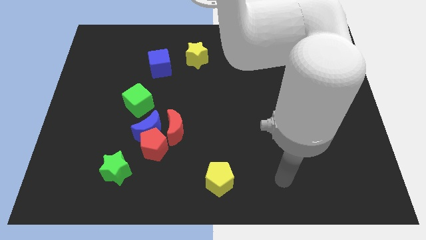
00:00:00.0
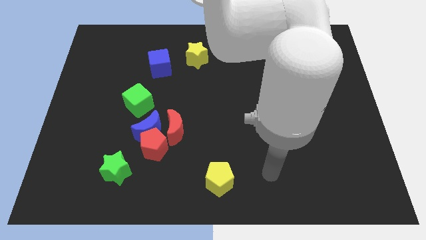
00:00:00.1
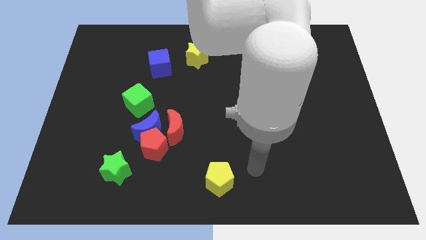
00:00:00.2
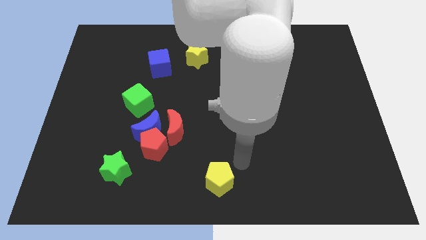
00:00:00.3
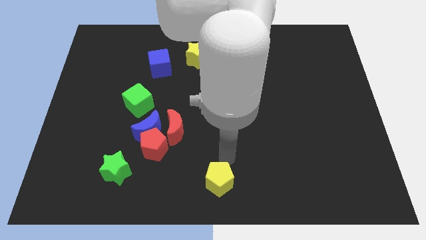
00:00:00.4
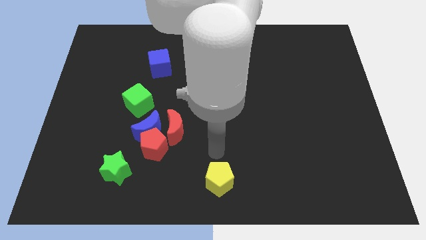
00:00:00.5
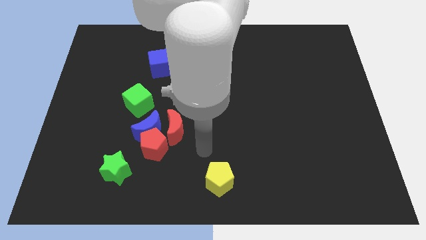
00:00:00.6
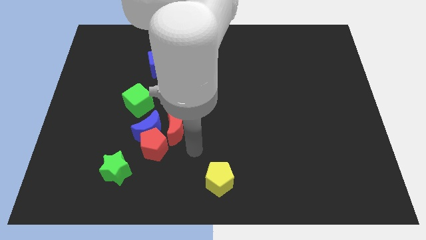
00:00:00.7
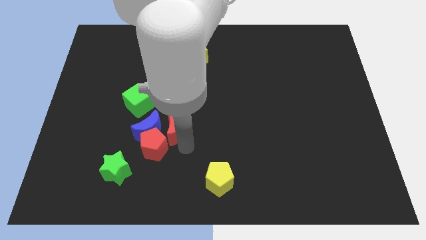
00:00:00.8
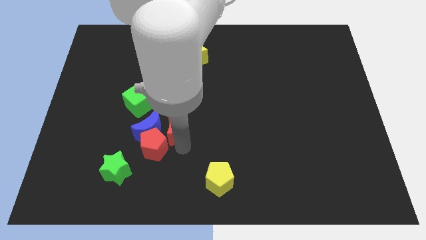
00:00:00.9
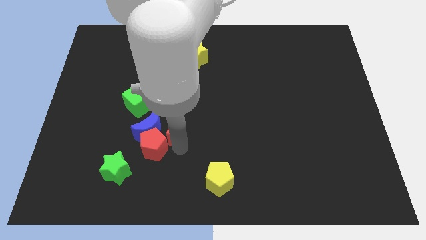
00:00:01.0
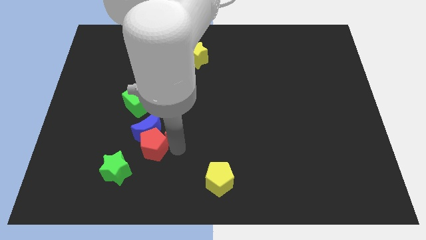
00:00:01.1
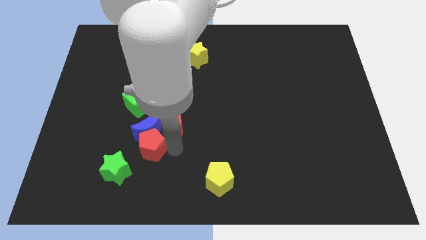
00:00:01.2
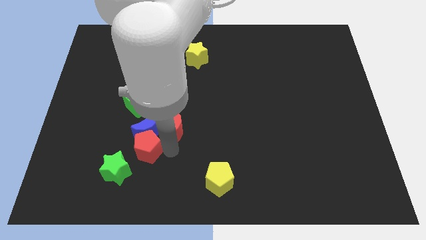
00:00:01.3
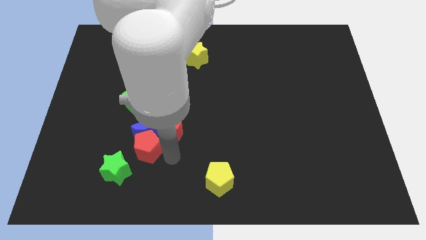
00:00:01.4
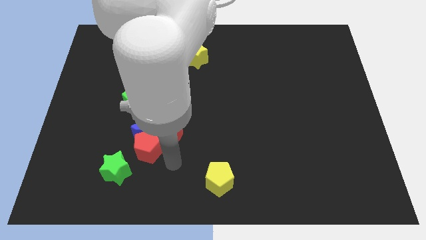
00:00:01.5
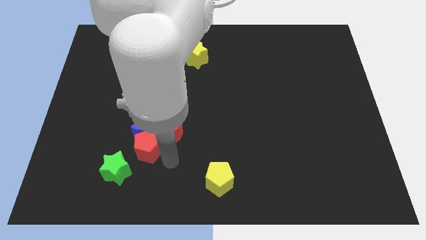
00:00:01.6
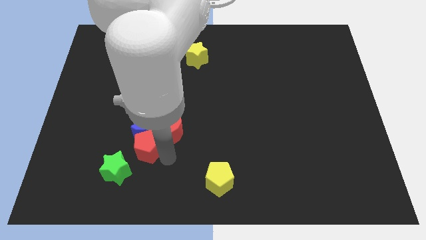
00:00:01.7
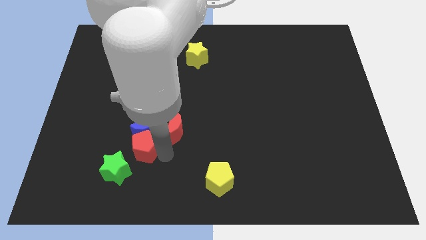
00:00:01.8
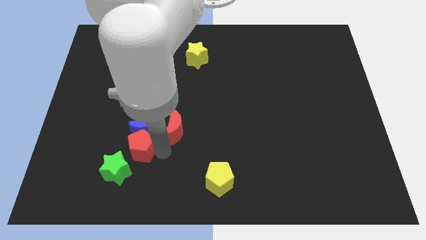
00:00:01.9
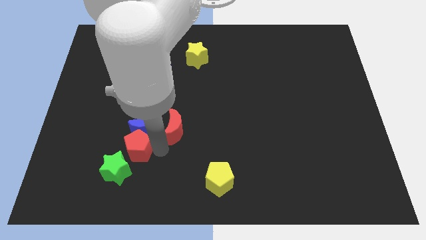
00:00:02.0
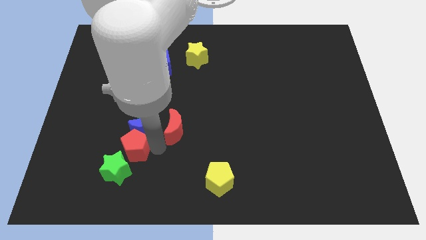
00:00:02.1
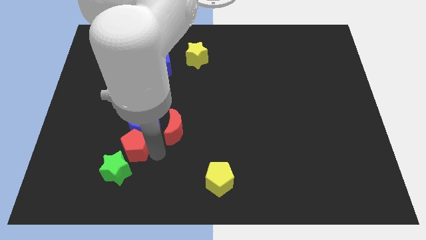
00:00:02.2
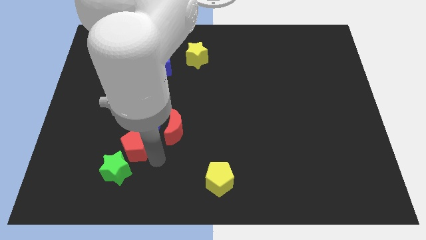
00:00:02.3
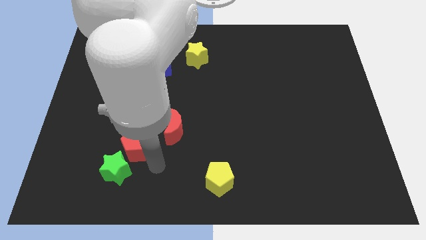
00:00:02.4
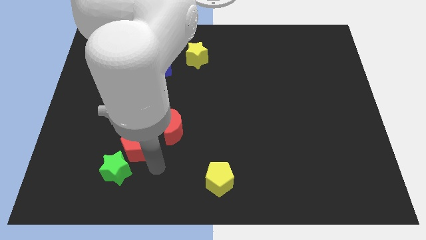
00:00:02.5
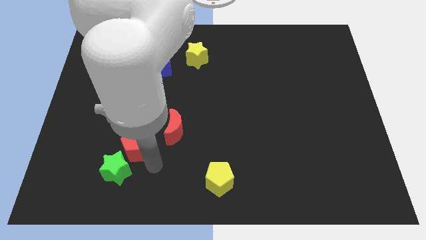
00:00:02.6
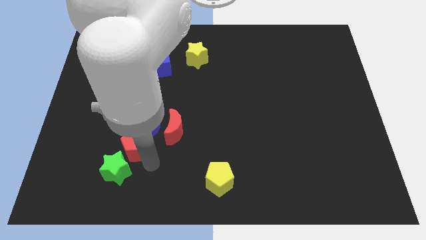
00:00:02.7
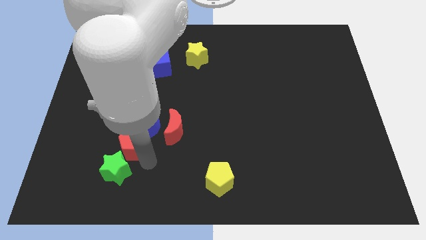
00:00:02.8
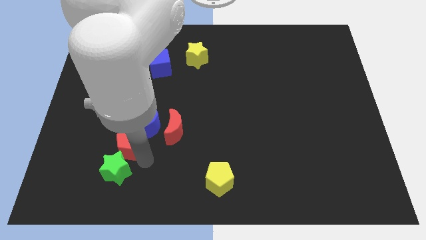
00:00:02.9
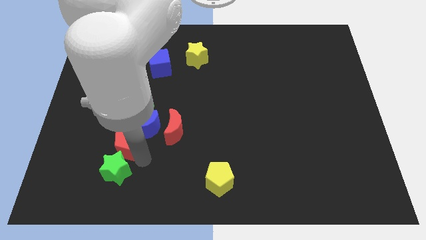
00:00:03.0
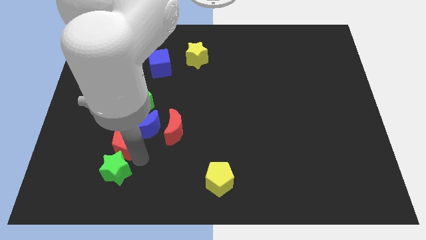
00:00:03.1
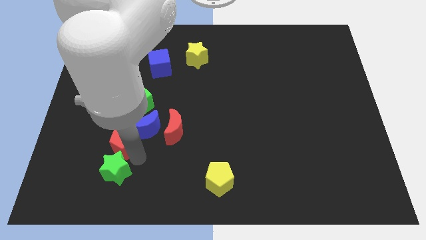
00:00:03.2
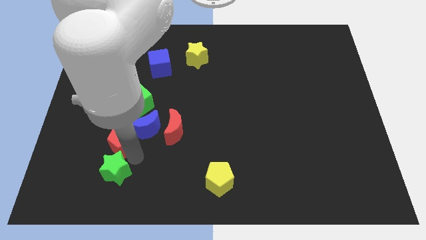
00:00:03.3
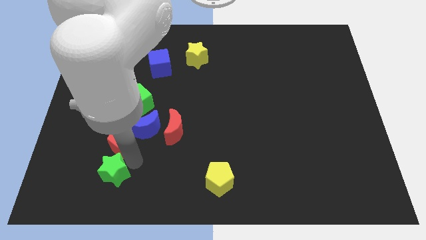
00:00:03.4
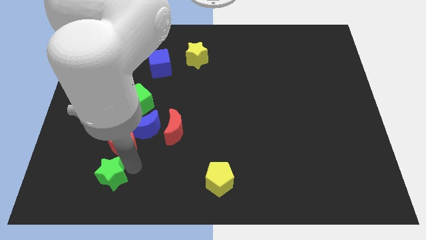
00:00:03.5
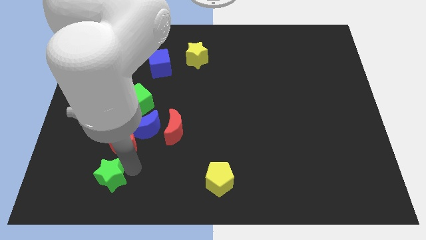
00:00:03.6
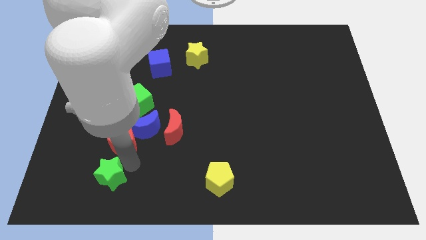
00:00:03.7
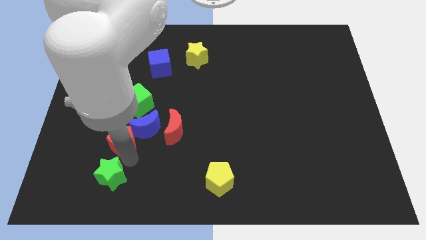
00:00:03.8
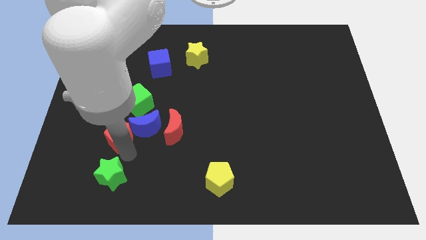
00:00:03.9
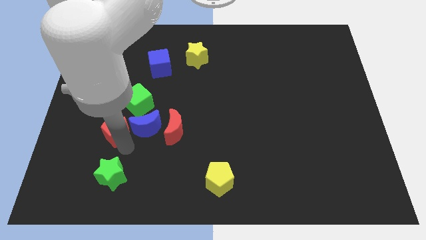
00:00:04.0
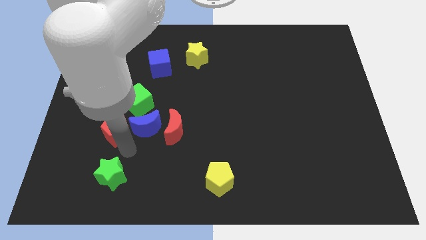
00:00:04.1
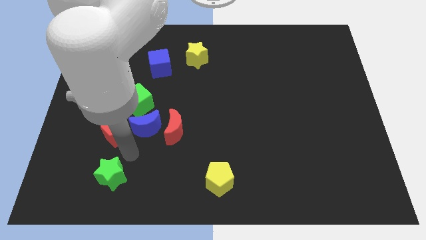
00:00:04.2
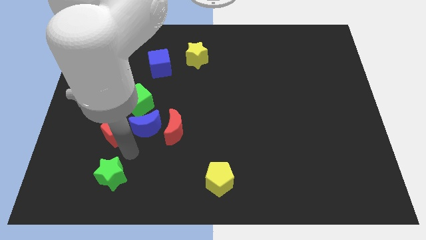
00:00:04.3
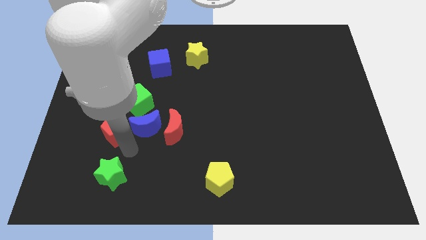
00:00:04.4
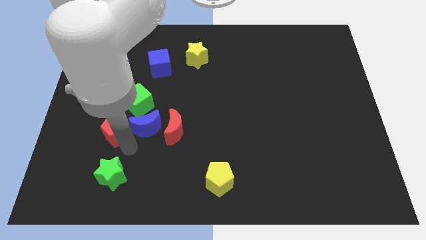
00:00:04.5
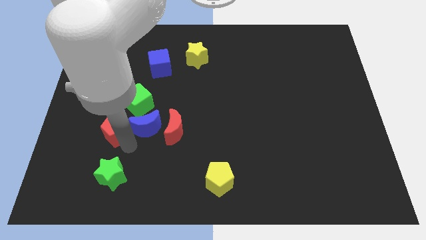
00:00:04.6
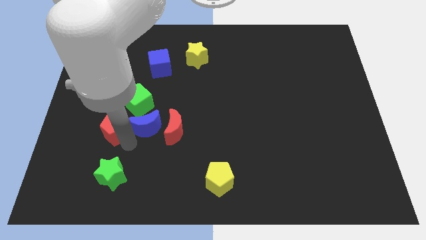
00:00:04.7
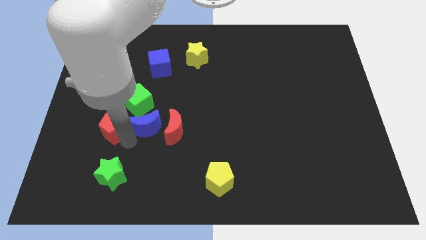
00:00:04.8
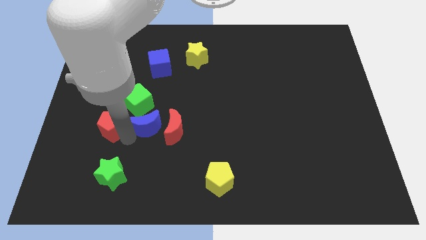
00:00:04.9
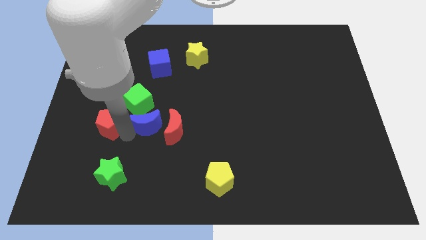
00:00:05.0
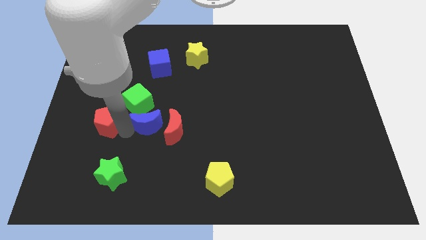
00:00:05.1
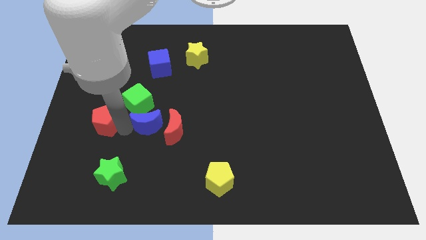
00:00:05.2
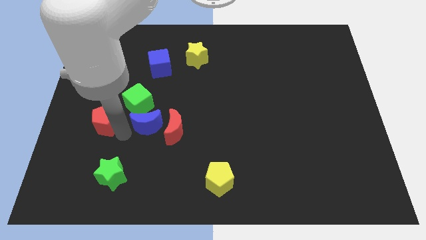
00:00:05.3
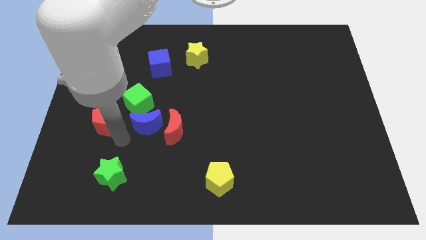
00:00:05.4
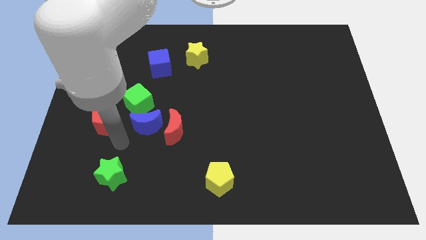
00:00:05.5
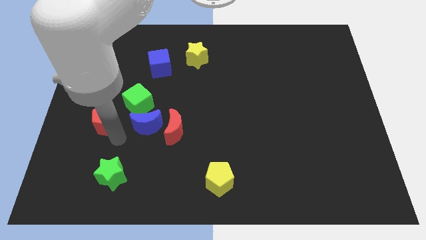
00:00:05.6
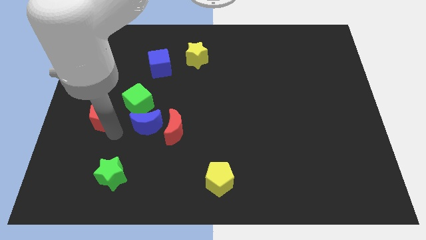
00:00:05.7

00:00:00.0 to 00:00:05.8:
put the red pentagon to the left of the green cube

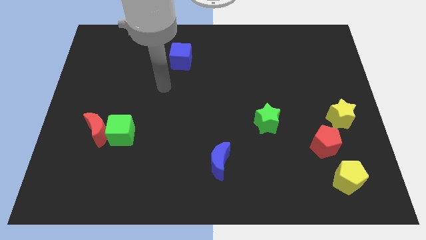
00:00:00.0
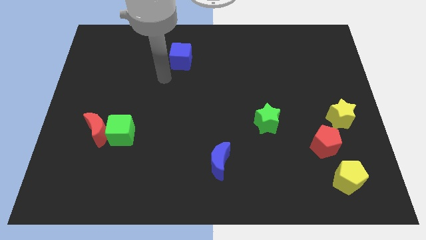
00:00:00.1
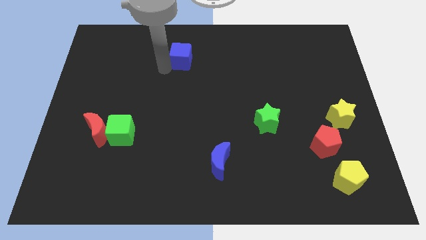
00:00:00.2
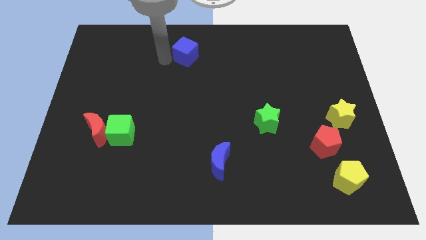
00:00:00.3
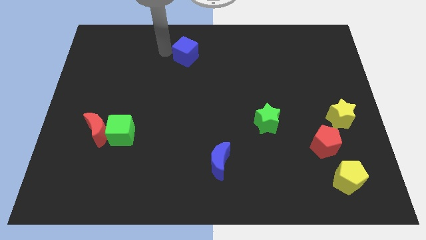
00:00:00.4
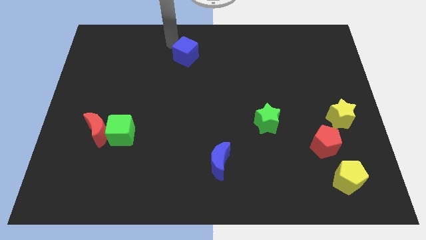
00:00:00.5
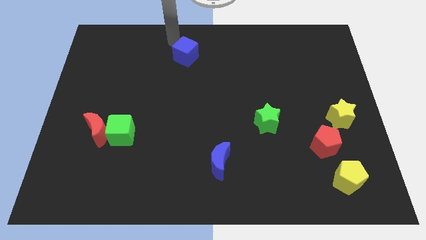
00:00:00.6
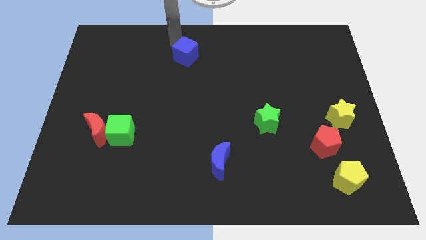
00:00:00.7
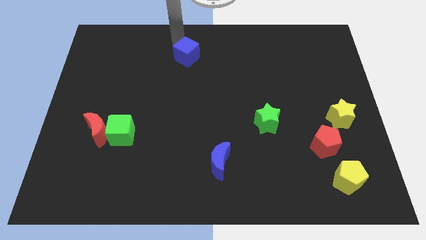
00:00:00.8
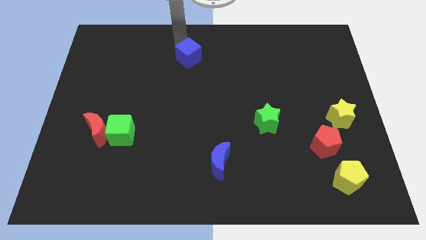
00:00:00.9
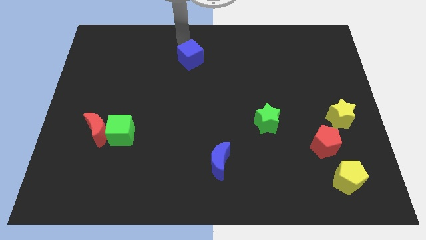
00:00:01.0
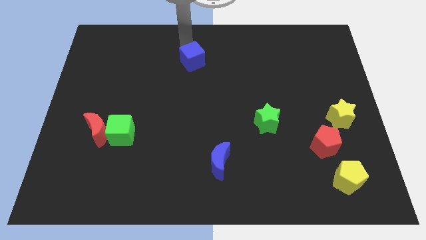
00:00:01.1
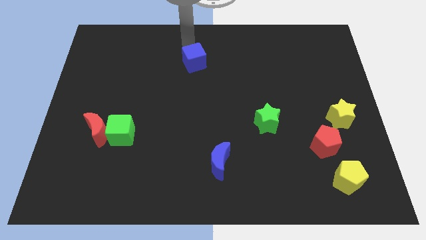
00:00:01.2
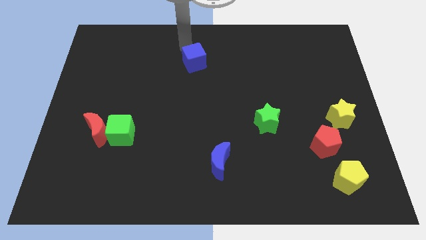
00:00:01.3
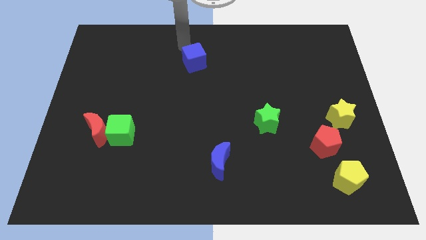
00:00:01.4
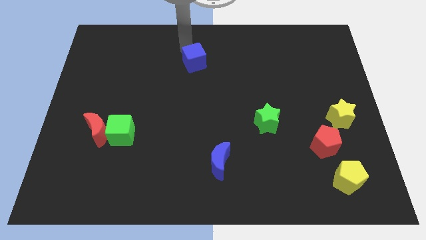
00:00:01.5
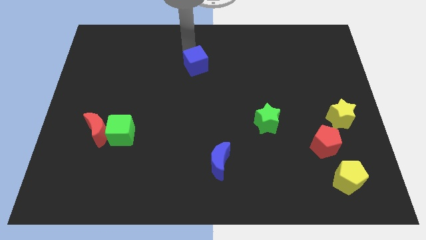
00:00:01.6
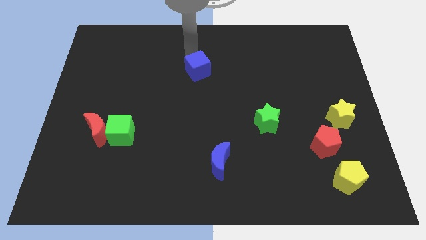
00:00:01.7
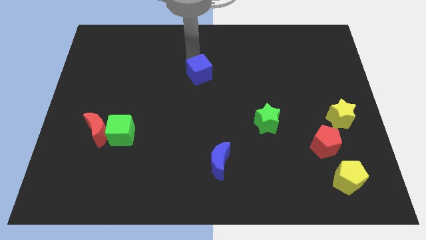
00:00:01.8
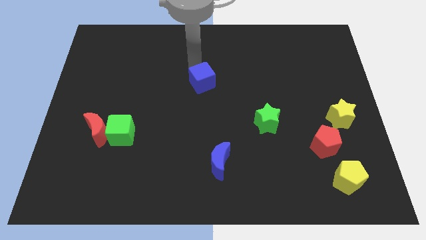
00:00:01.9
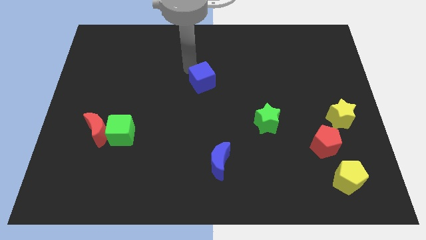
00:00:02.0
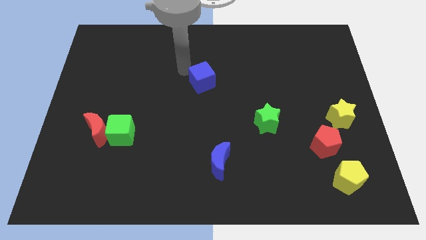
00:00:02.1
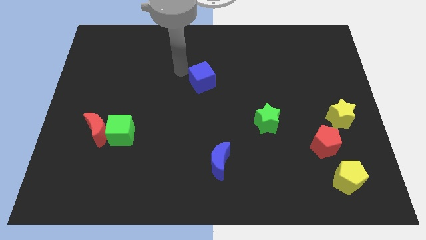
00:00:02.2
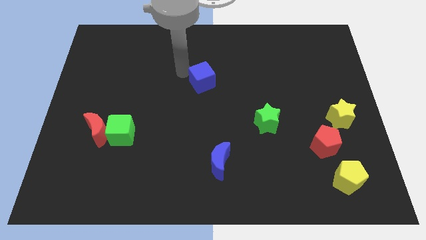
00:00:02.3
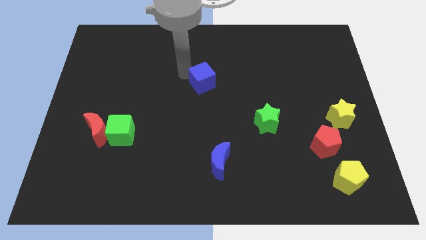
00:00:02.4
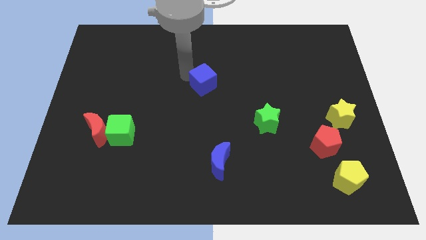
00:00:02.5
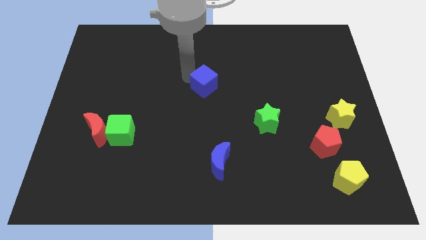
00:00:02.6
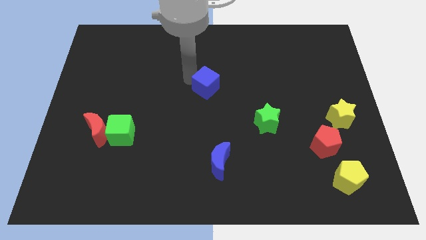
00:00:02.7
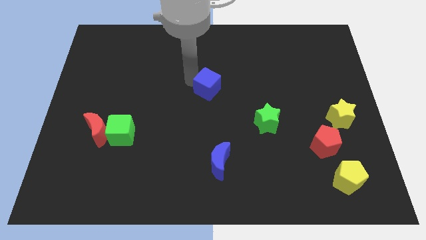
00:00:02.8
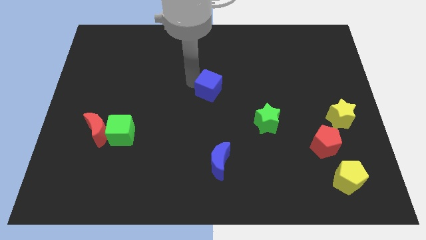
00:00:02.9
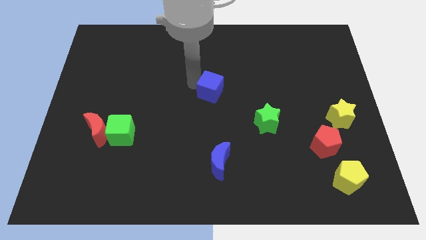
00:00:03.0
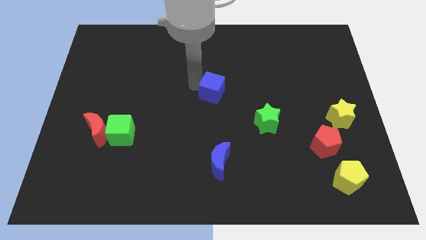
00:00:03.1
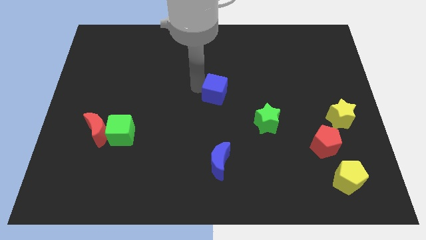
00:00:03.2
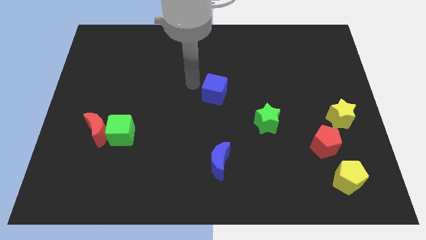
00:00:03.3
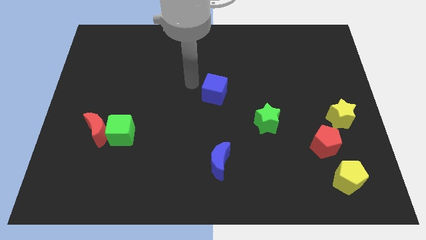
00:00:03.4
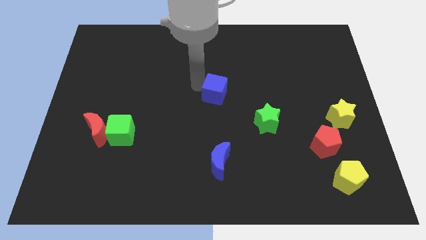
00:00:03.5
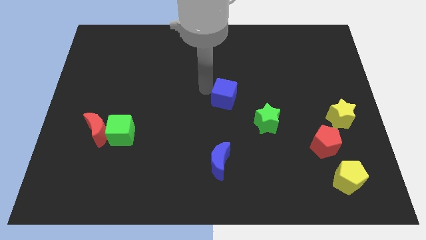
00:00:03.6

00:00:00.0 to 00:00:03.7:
put the blue cube diagonally up and to the left of the green star
